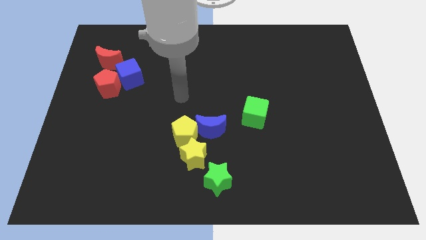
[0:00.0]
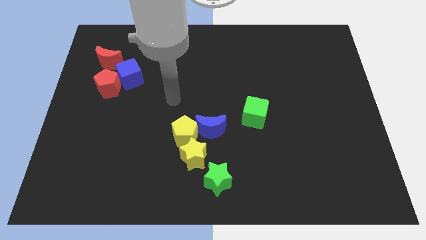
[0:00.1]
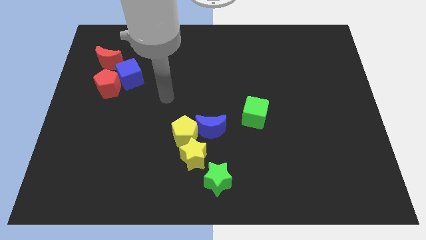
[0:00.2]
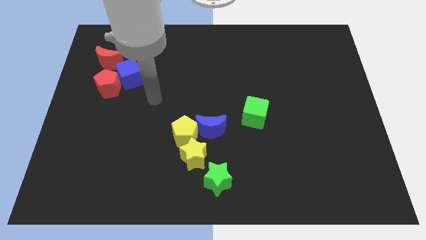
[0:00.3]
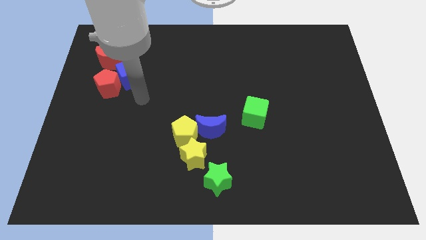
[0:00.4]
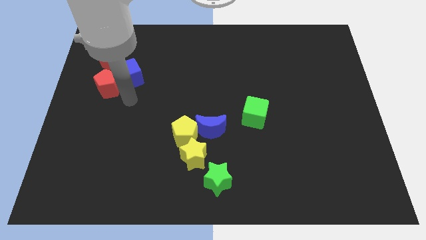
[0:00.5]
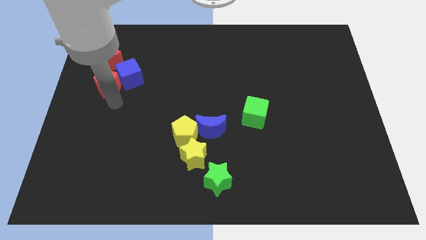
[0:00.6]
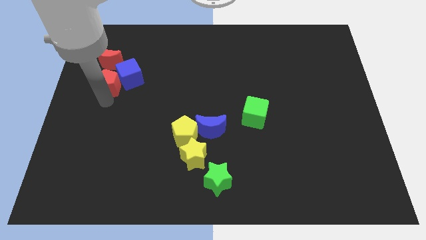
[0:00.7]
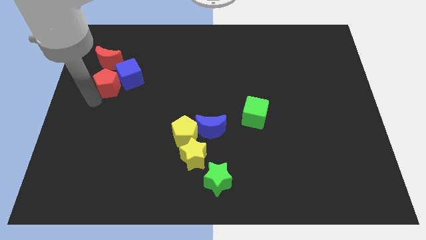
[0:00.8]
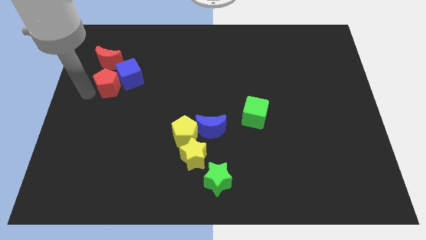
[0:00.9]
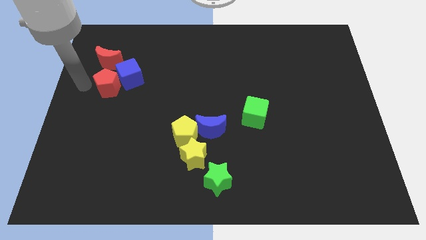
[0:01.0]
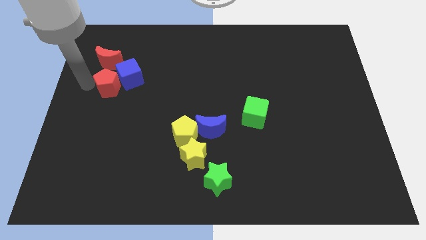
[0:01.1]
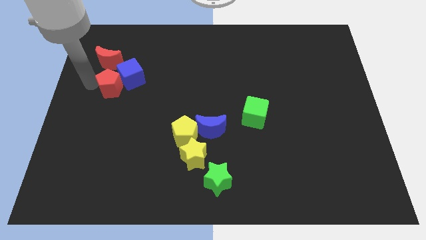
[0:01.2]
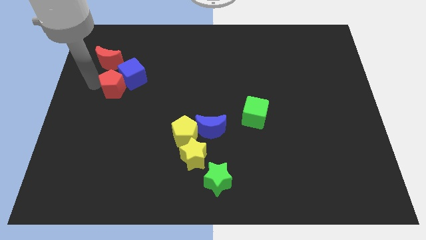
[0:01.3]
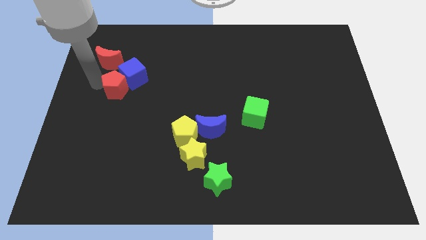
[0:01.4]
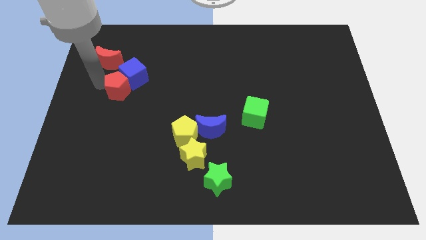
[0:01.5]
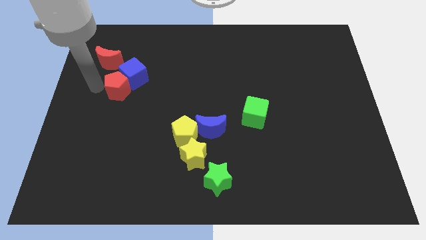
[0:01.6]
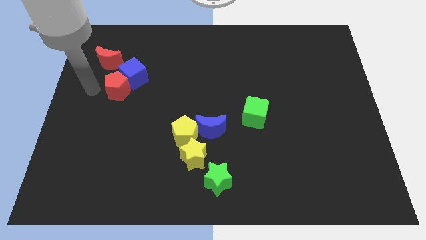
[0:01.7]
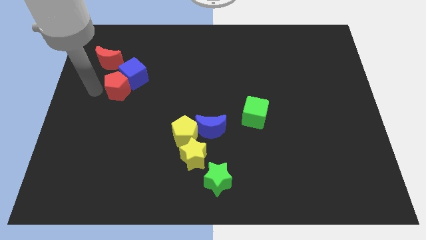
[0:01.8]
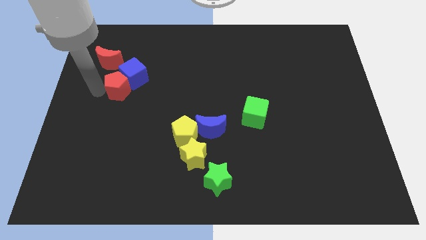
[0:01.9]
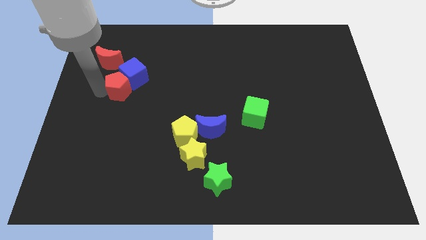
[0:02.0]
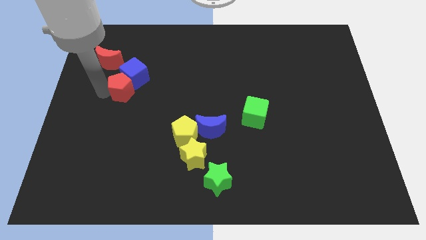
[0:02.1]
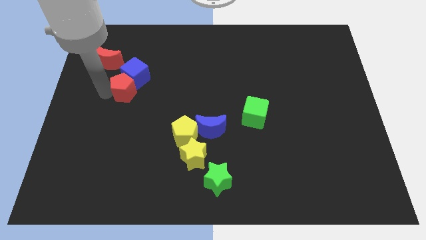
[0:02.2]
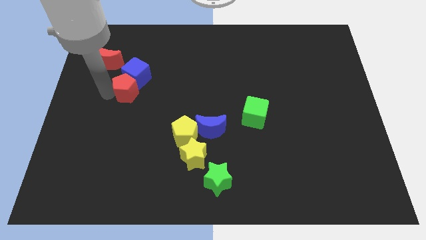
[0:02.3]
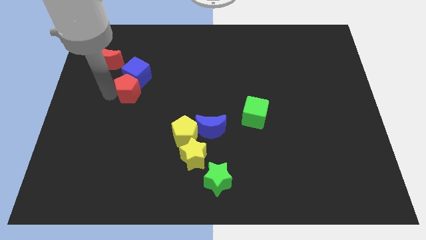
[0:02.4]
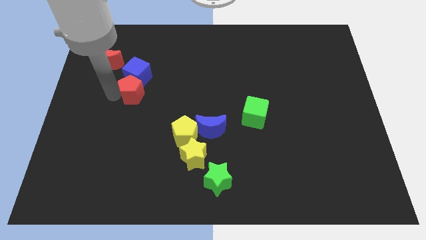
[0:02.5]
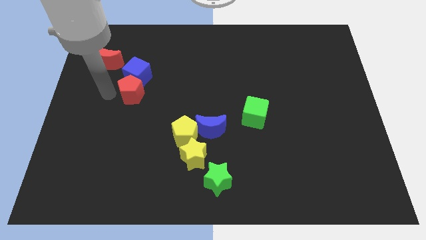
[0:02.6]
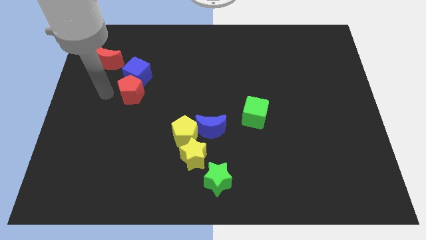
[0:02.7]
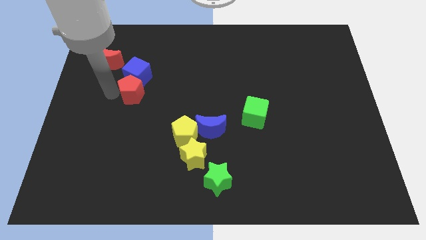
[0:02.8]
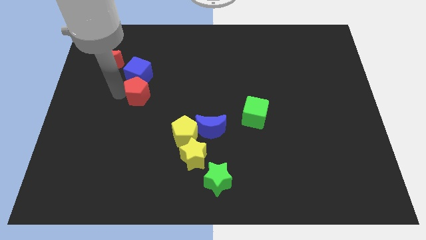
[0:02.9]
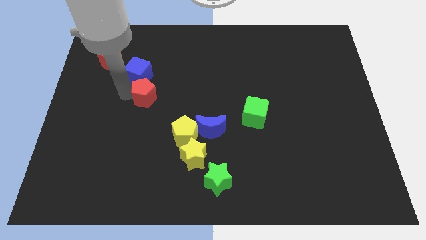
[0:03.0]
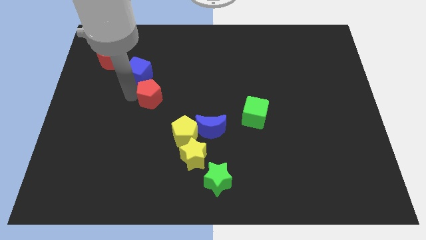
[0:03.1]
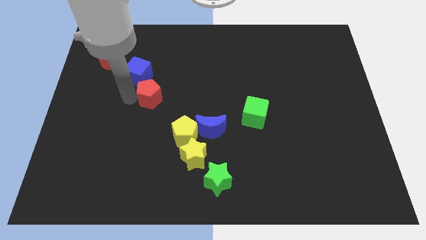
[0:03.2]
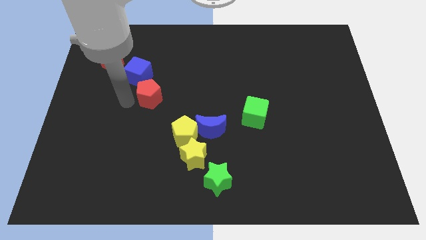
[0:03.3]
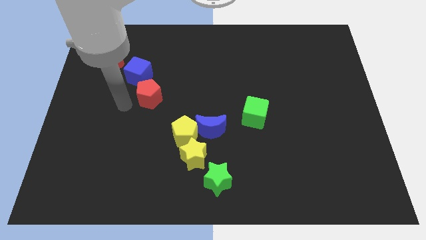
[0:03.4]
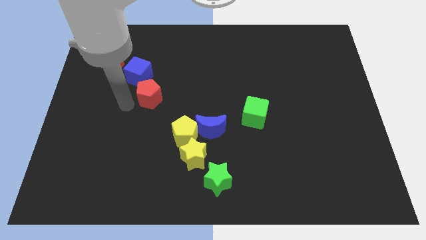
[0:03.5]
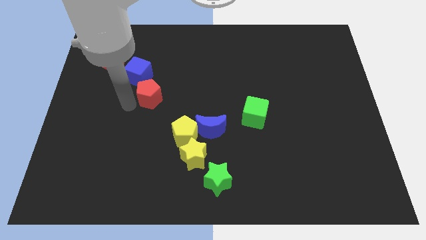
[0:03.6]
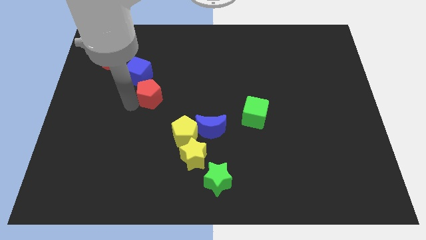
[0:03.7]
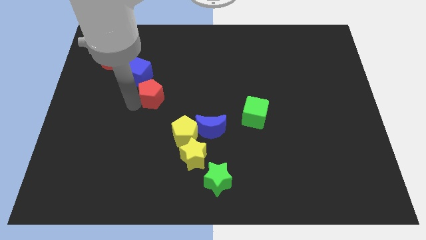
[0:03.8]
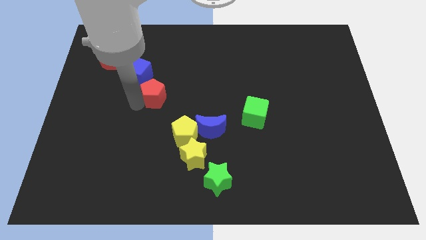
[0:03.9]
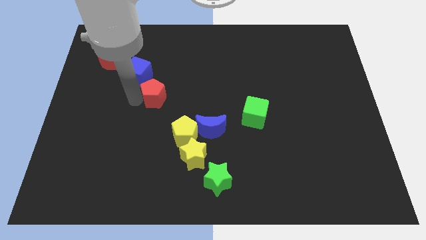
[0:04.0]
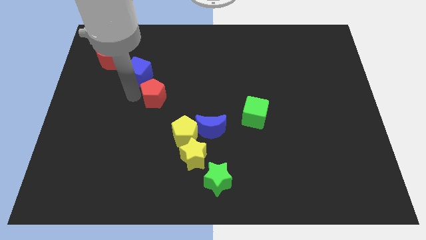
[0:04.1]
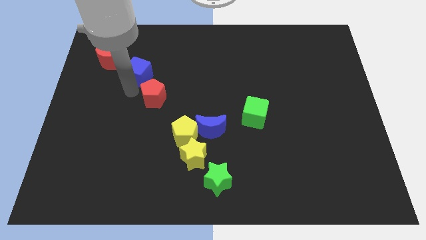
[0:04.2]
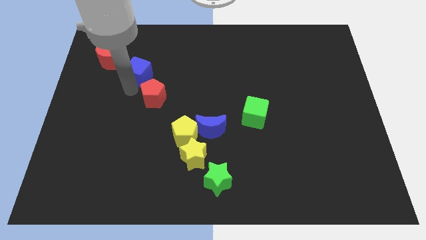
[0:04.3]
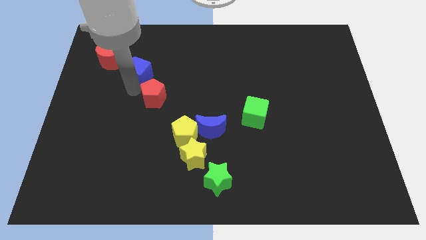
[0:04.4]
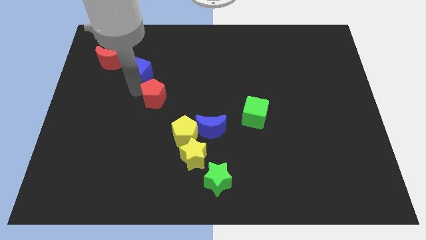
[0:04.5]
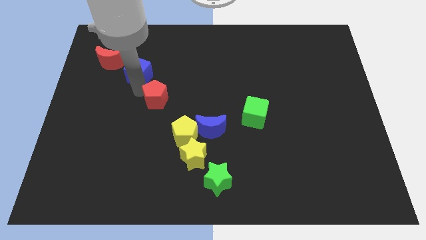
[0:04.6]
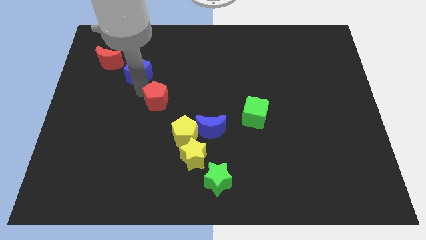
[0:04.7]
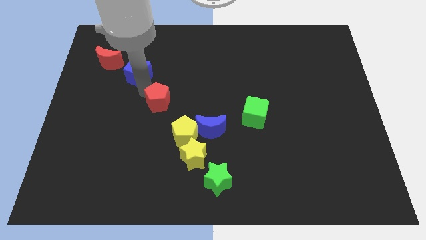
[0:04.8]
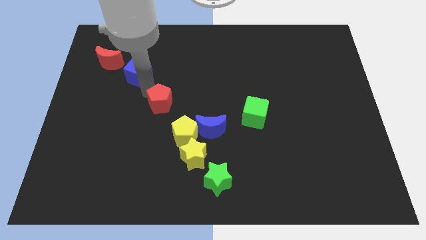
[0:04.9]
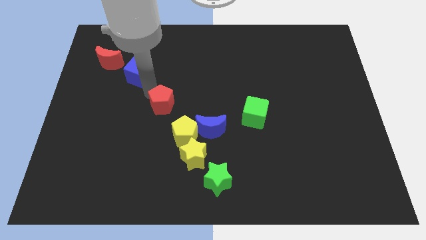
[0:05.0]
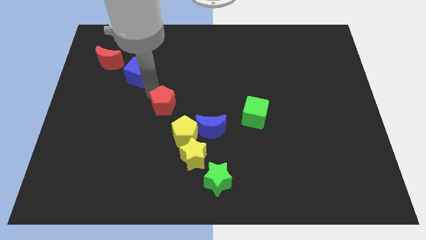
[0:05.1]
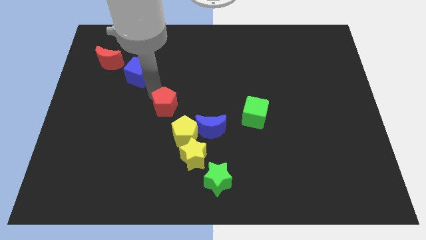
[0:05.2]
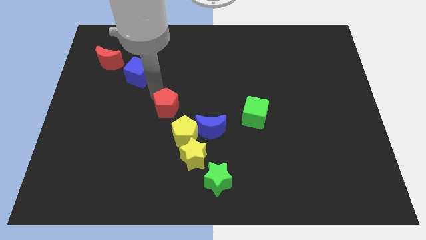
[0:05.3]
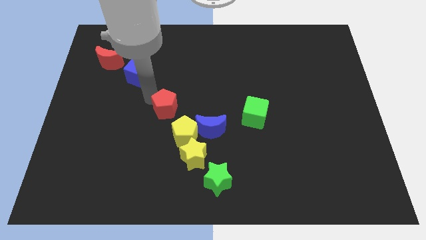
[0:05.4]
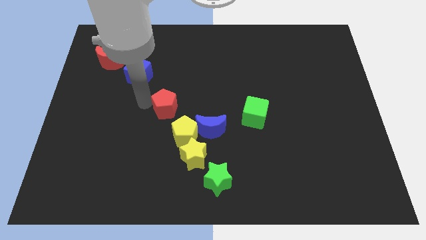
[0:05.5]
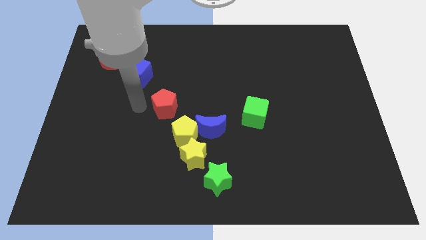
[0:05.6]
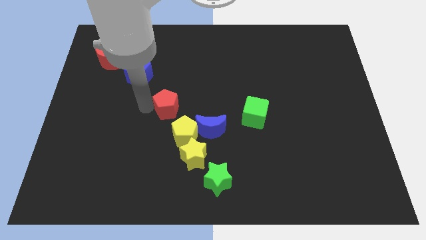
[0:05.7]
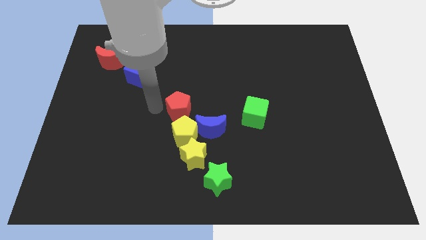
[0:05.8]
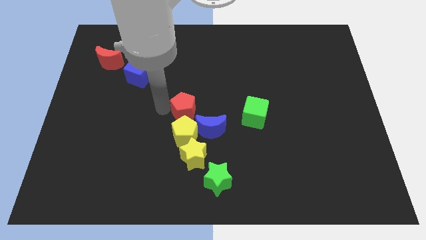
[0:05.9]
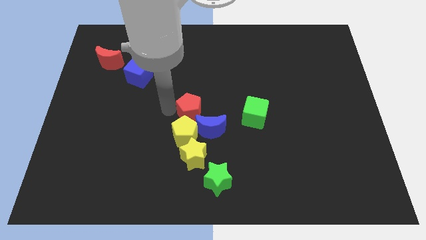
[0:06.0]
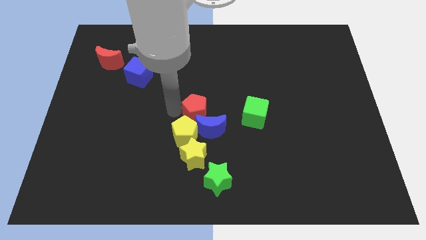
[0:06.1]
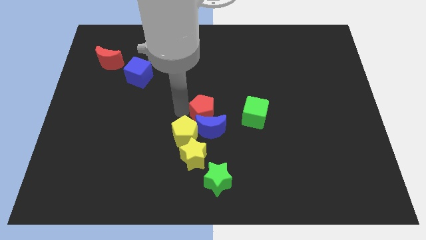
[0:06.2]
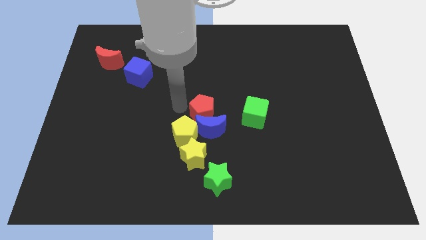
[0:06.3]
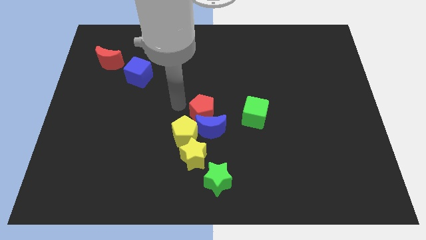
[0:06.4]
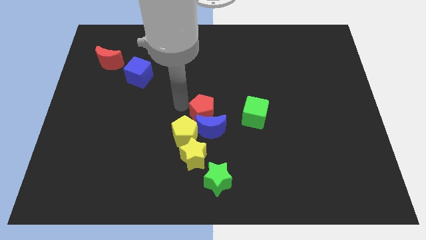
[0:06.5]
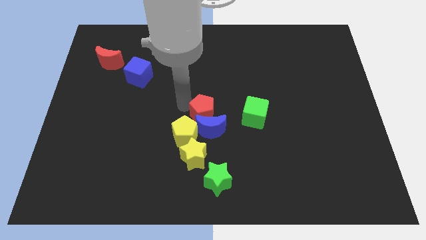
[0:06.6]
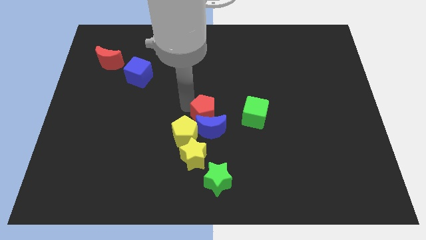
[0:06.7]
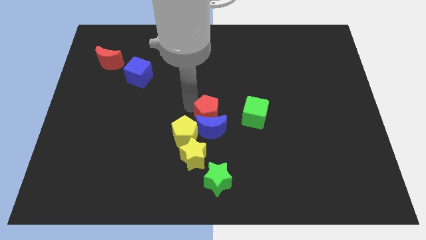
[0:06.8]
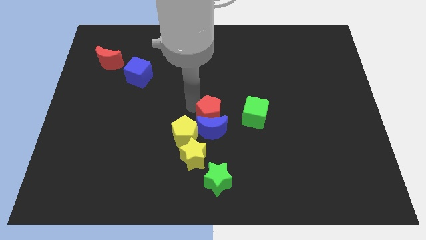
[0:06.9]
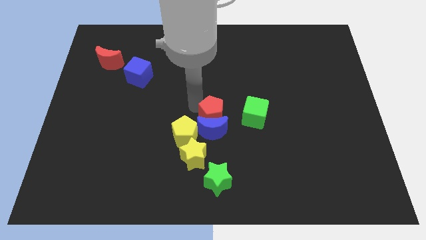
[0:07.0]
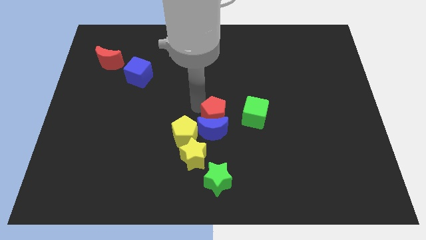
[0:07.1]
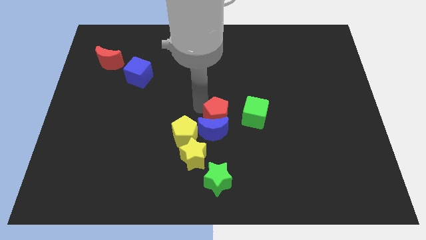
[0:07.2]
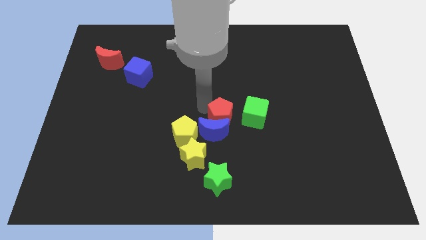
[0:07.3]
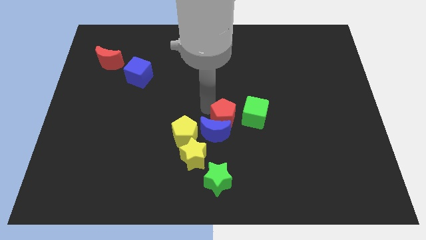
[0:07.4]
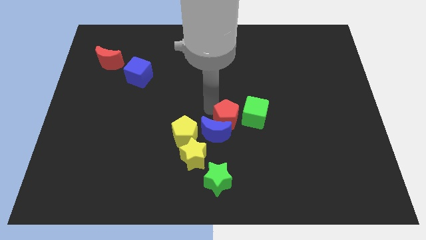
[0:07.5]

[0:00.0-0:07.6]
push the red pentagon to the right of the blue moon

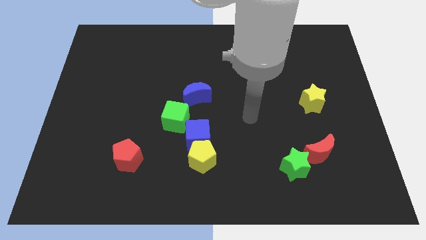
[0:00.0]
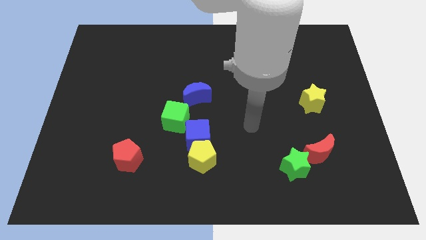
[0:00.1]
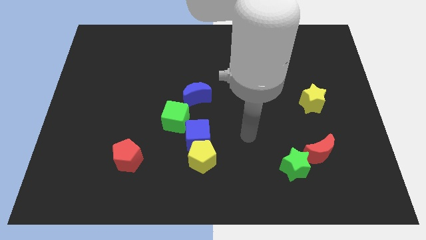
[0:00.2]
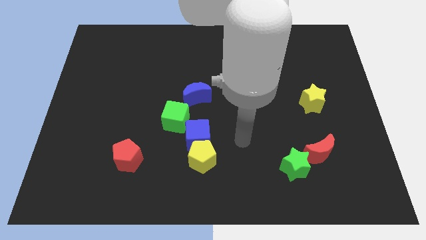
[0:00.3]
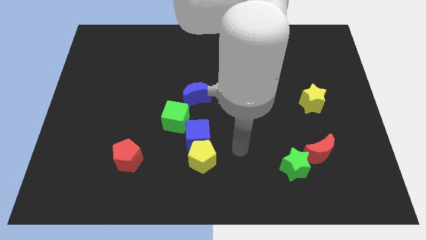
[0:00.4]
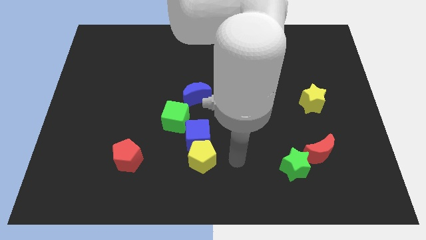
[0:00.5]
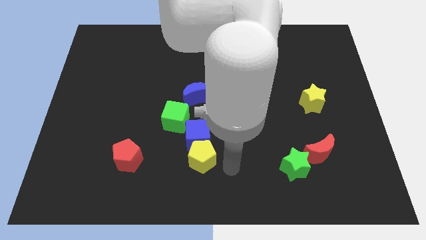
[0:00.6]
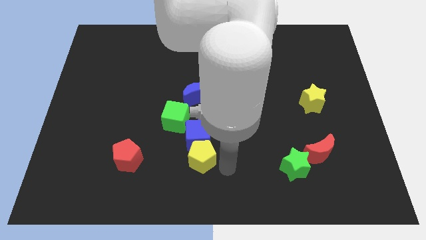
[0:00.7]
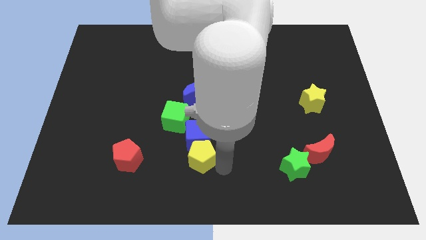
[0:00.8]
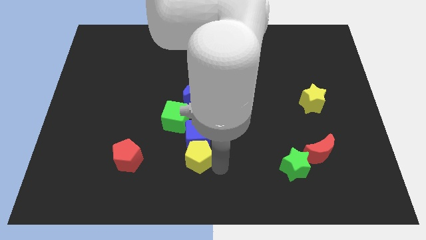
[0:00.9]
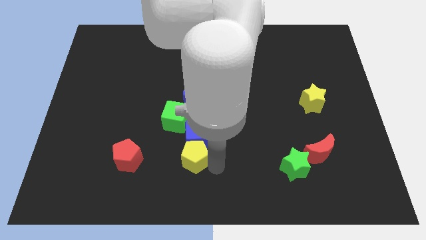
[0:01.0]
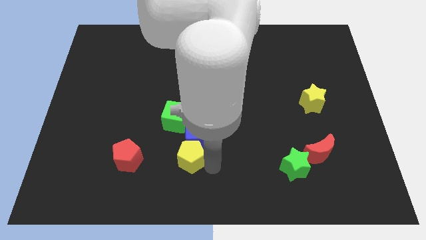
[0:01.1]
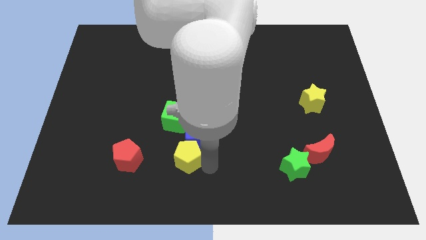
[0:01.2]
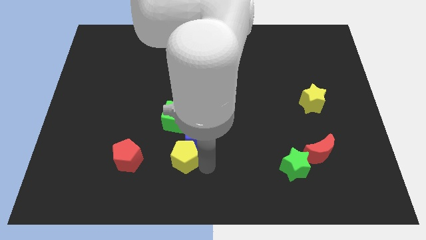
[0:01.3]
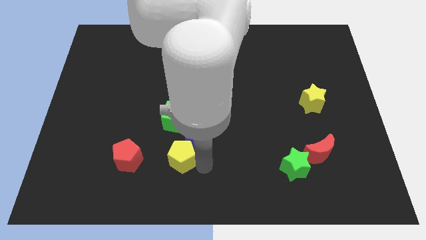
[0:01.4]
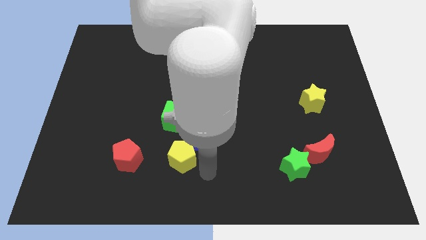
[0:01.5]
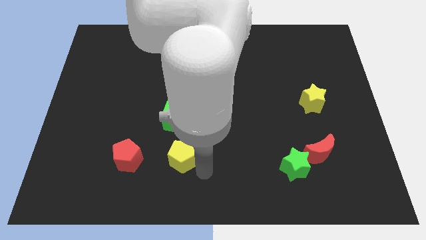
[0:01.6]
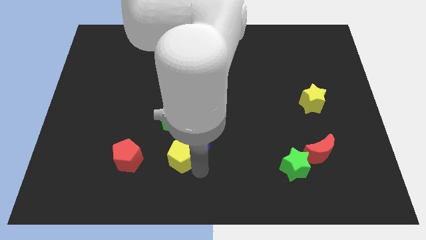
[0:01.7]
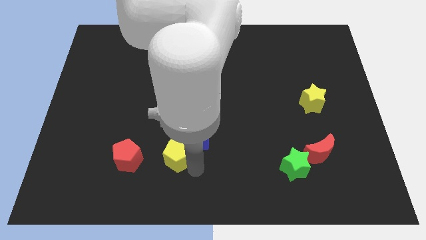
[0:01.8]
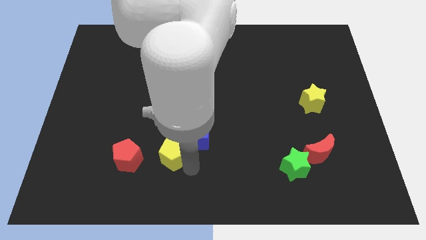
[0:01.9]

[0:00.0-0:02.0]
slide the yellow pentagon to the left of the blue cube
